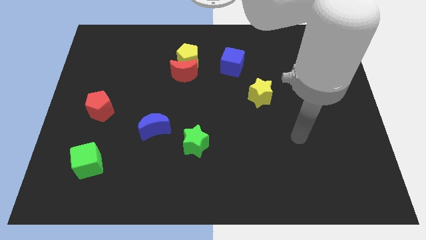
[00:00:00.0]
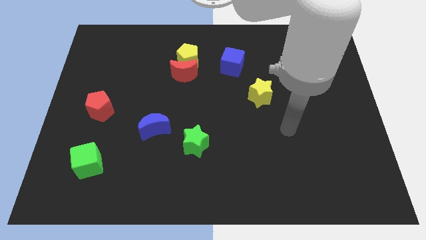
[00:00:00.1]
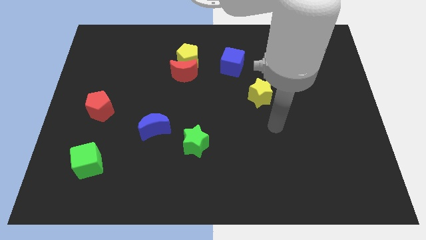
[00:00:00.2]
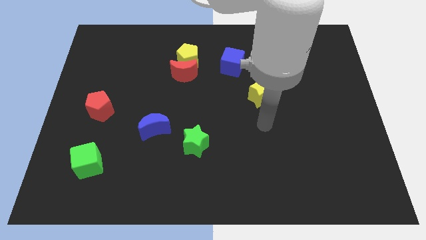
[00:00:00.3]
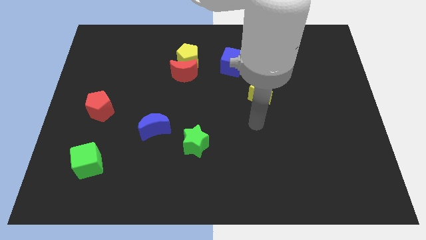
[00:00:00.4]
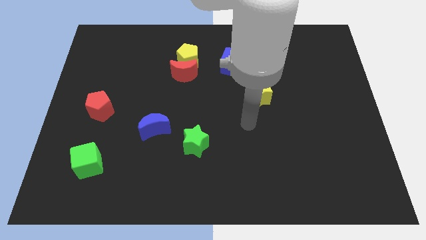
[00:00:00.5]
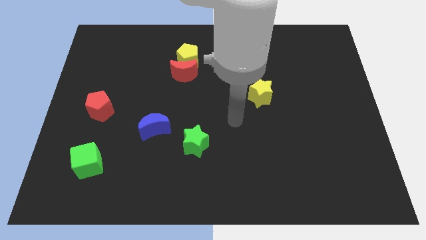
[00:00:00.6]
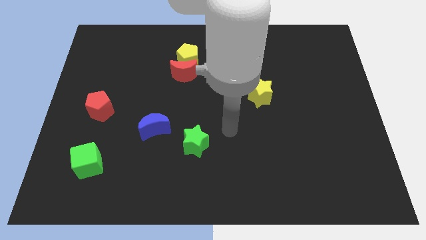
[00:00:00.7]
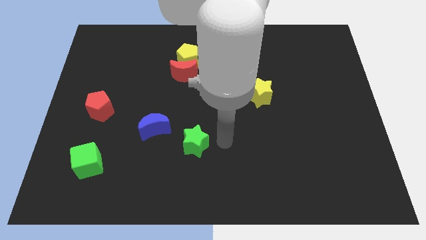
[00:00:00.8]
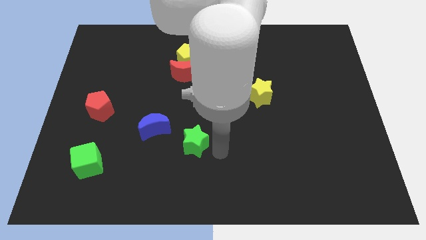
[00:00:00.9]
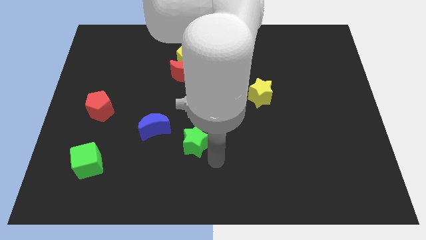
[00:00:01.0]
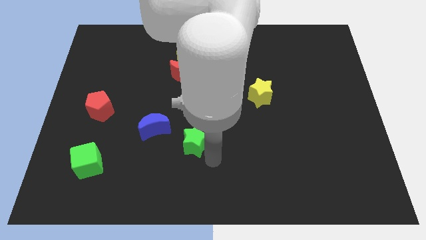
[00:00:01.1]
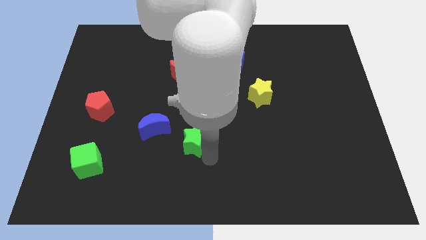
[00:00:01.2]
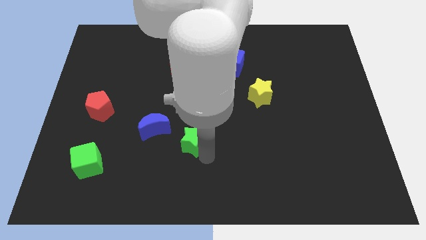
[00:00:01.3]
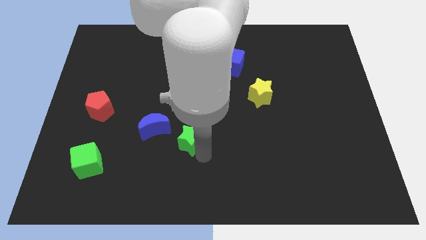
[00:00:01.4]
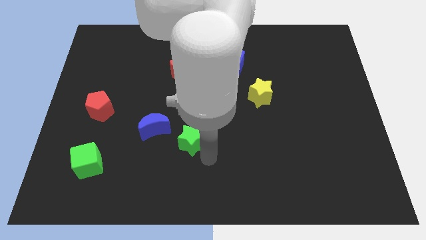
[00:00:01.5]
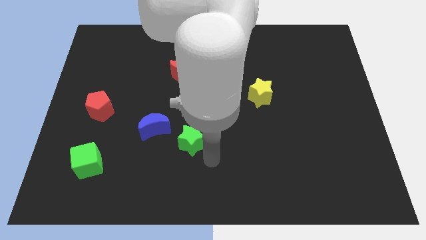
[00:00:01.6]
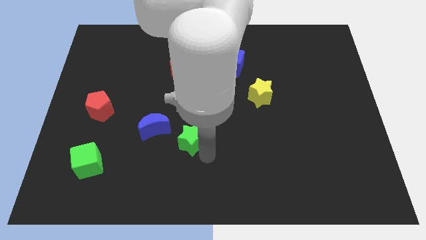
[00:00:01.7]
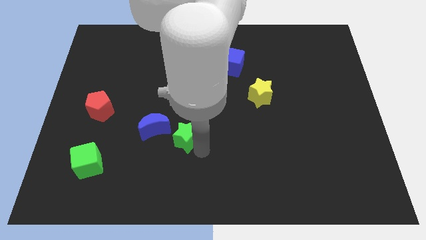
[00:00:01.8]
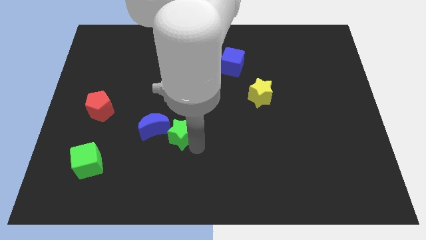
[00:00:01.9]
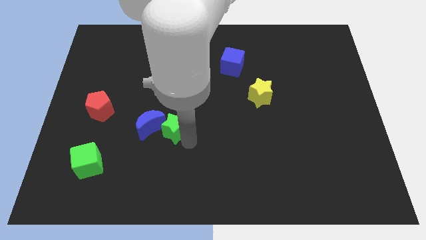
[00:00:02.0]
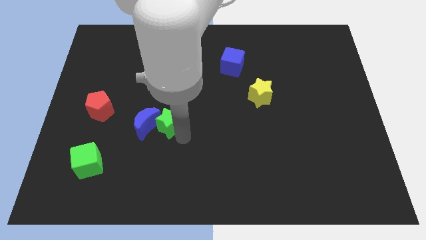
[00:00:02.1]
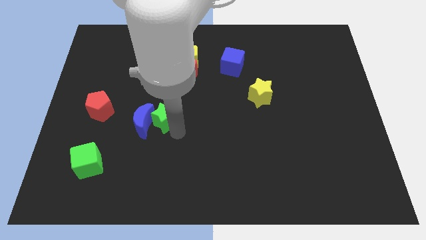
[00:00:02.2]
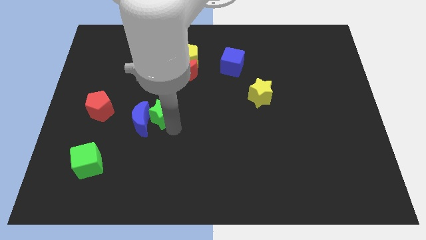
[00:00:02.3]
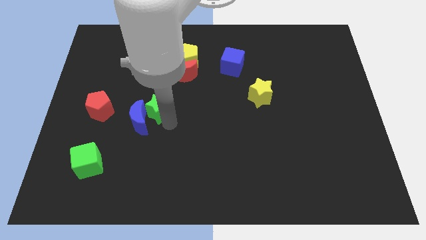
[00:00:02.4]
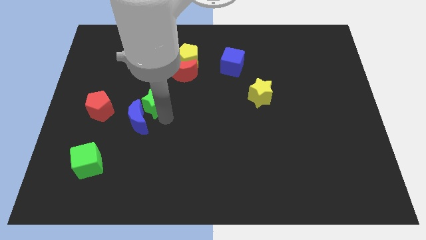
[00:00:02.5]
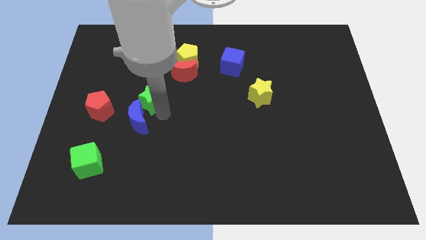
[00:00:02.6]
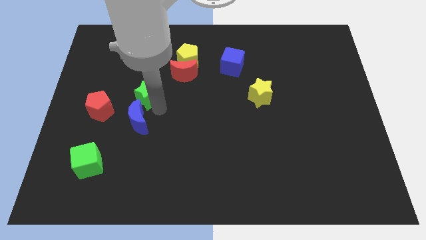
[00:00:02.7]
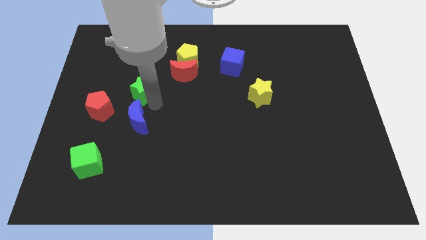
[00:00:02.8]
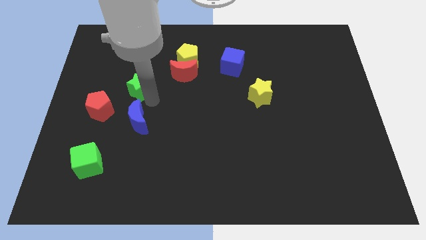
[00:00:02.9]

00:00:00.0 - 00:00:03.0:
push the green star up and then to the left

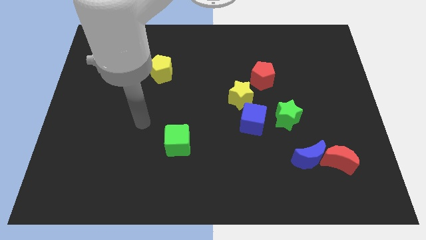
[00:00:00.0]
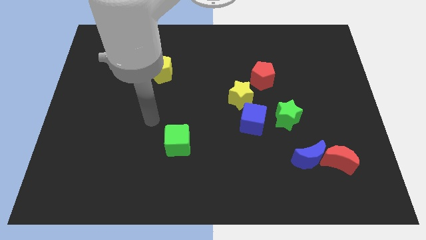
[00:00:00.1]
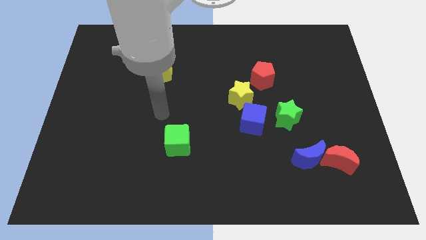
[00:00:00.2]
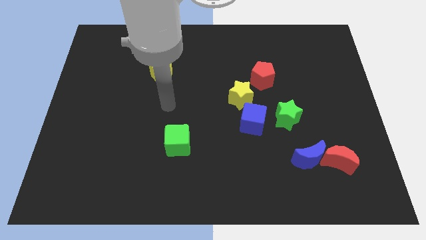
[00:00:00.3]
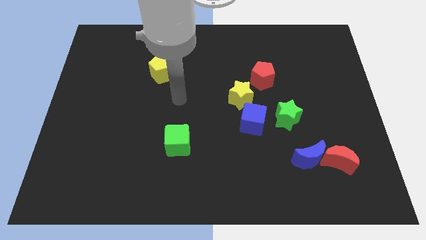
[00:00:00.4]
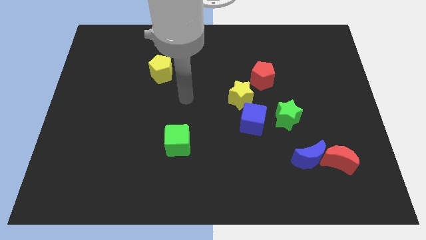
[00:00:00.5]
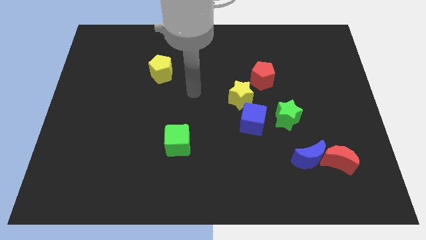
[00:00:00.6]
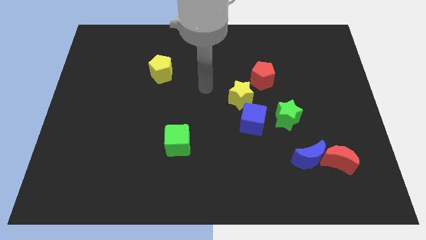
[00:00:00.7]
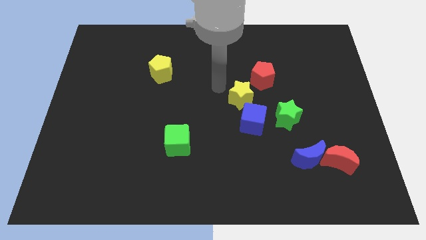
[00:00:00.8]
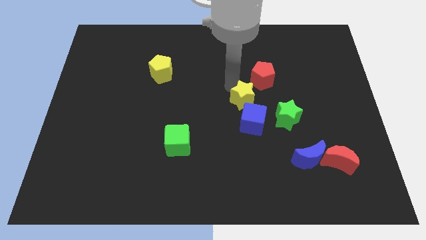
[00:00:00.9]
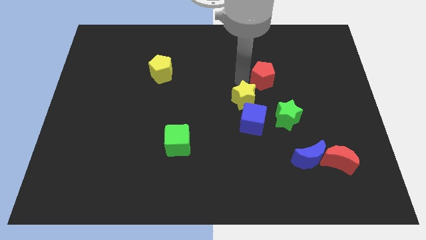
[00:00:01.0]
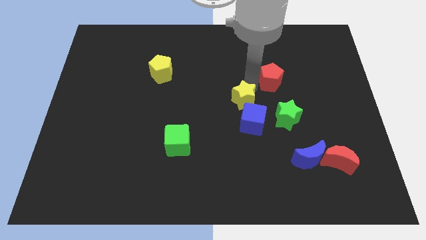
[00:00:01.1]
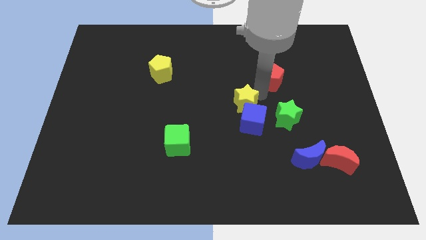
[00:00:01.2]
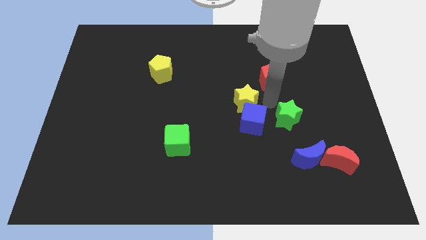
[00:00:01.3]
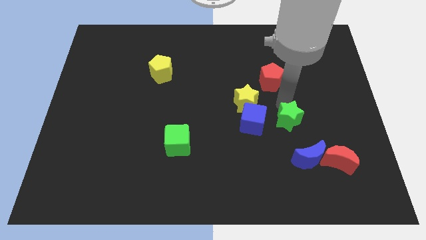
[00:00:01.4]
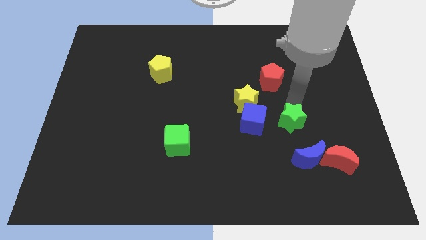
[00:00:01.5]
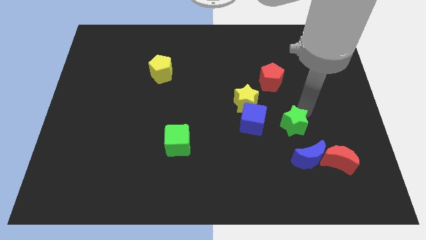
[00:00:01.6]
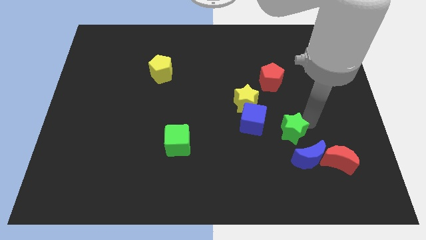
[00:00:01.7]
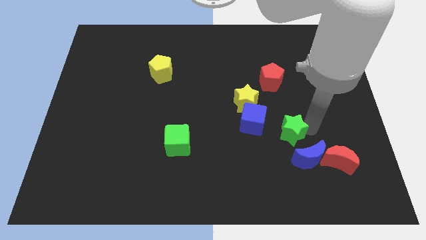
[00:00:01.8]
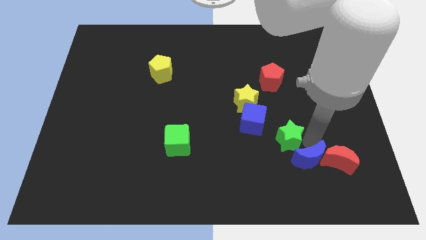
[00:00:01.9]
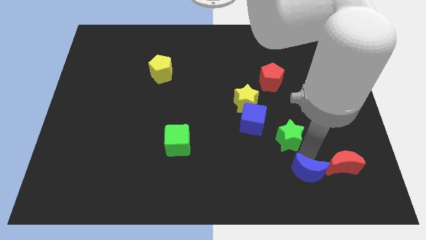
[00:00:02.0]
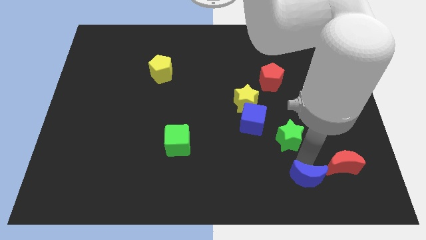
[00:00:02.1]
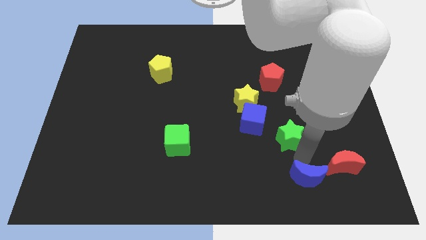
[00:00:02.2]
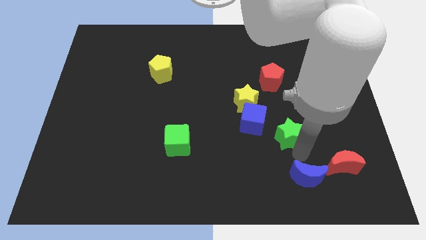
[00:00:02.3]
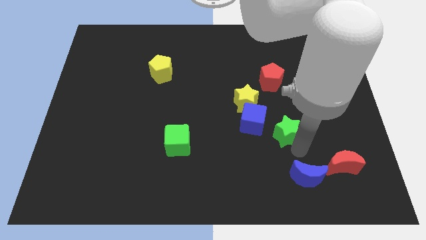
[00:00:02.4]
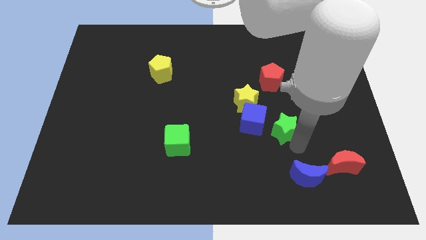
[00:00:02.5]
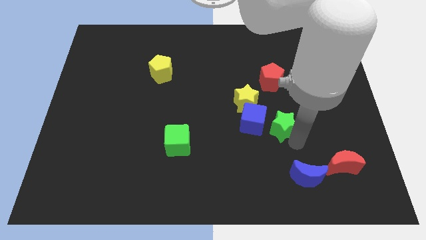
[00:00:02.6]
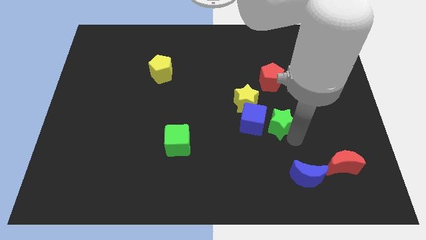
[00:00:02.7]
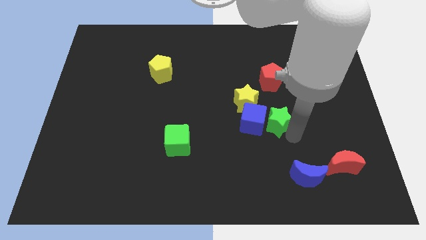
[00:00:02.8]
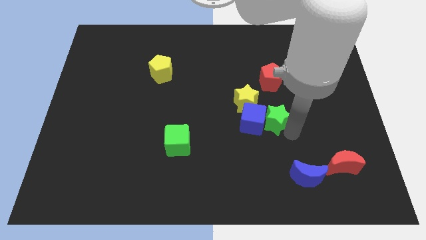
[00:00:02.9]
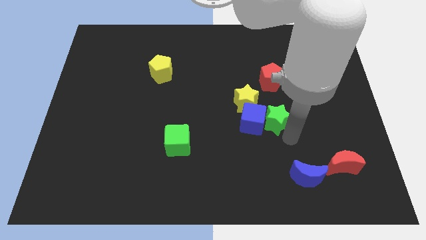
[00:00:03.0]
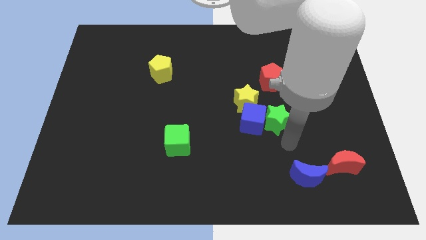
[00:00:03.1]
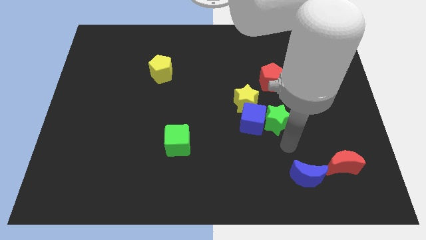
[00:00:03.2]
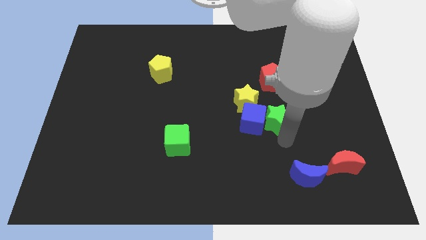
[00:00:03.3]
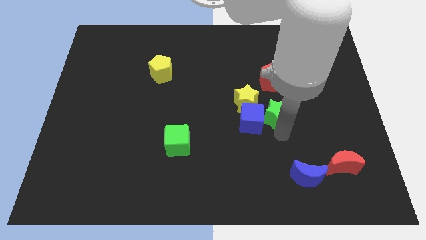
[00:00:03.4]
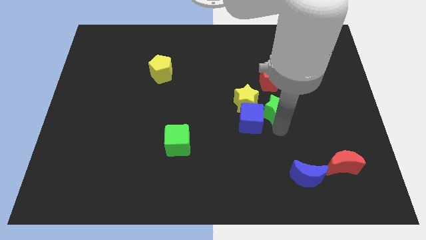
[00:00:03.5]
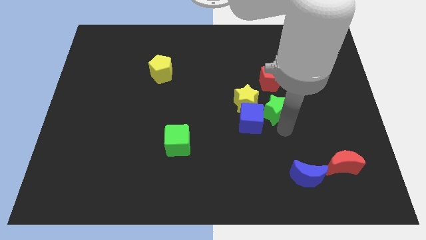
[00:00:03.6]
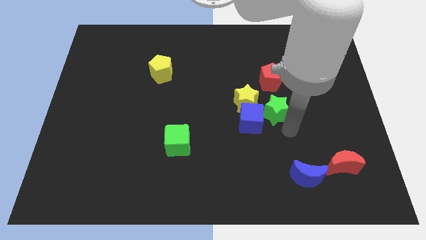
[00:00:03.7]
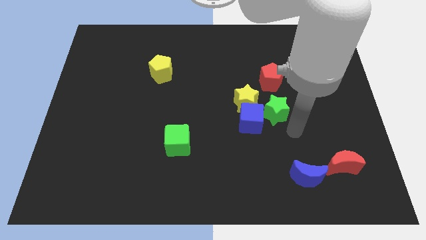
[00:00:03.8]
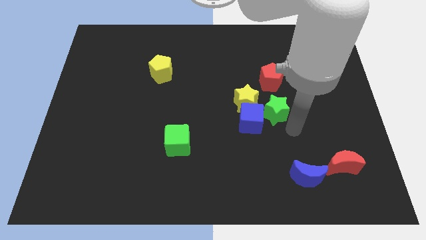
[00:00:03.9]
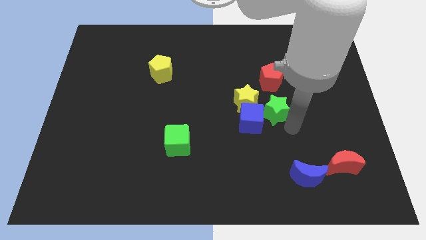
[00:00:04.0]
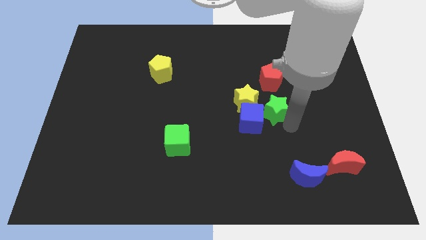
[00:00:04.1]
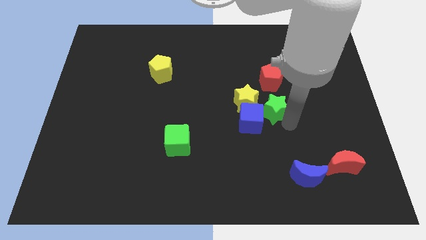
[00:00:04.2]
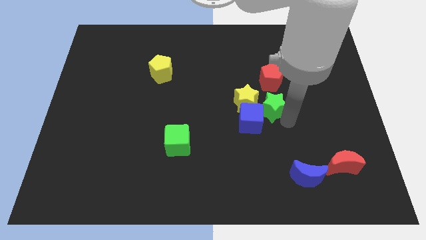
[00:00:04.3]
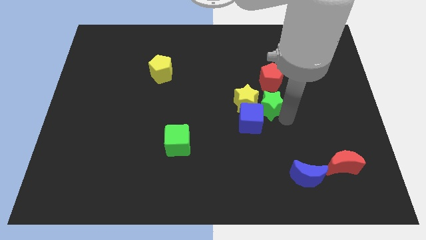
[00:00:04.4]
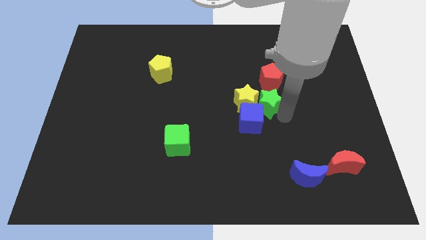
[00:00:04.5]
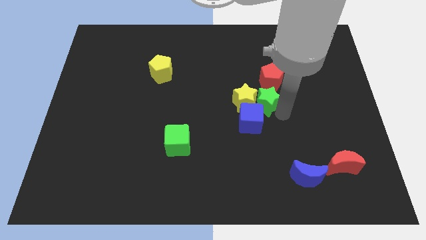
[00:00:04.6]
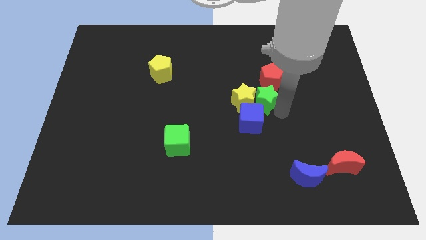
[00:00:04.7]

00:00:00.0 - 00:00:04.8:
slightly slide the green star diagonally upwards and left
